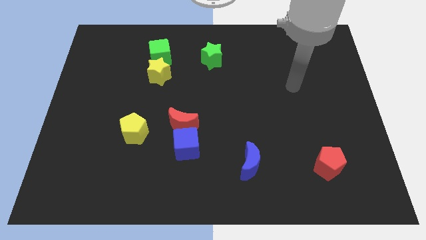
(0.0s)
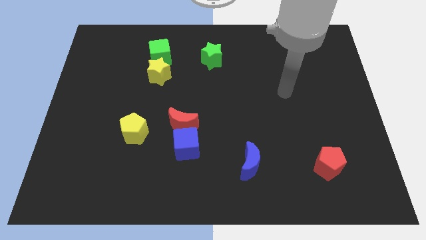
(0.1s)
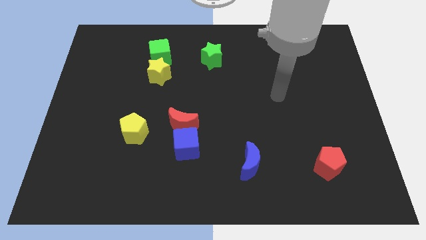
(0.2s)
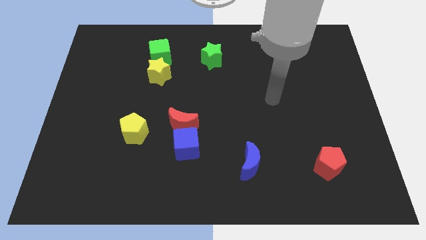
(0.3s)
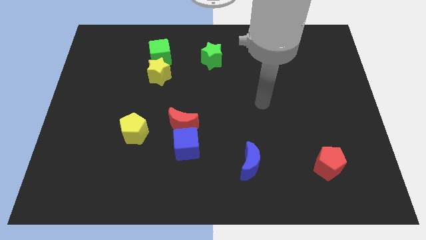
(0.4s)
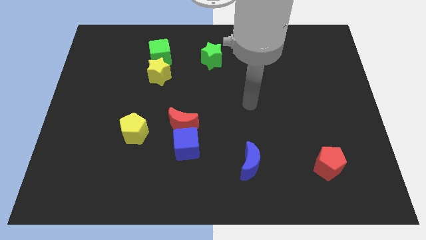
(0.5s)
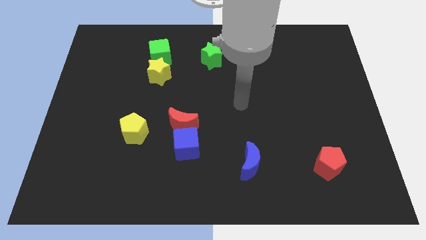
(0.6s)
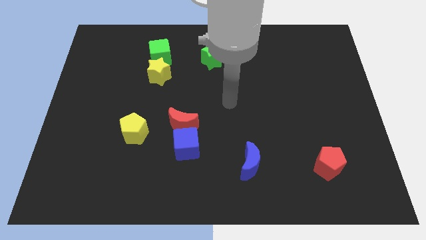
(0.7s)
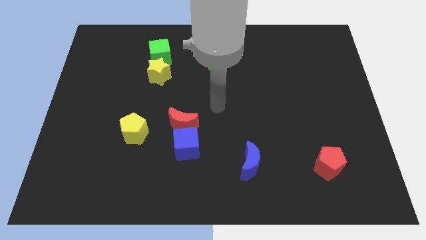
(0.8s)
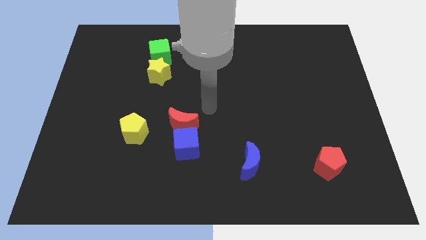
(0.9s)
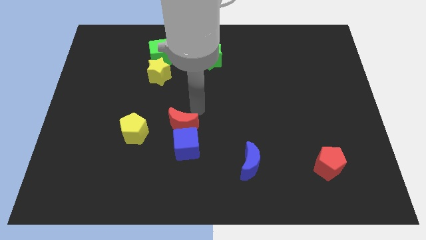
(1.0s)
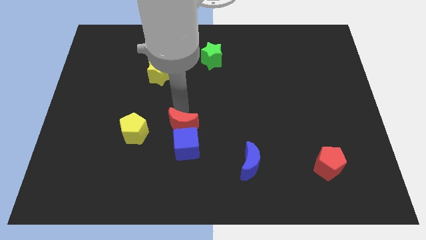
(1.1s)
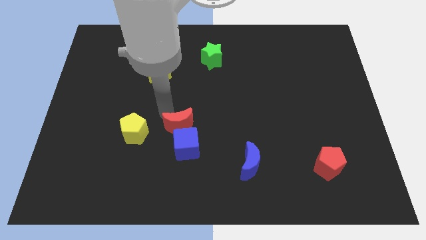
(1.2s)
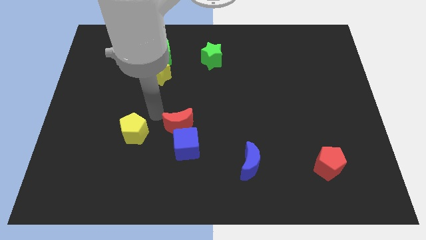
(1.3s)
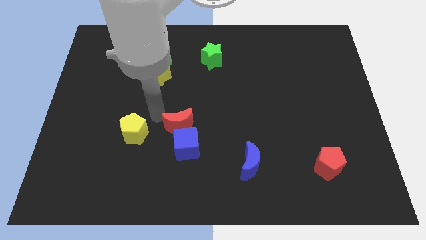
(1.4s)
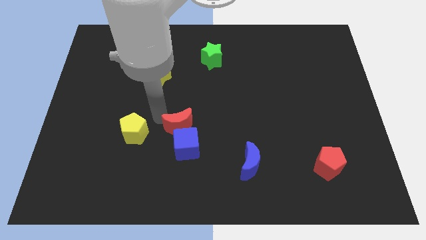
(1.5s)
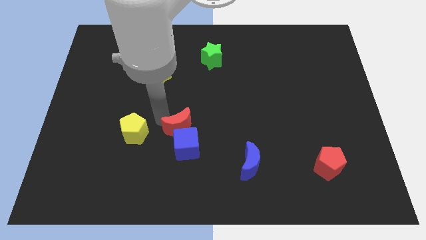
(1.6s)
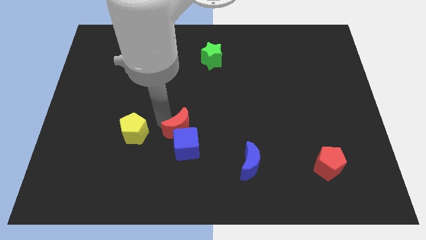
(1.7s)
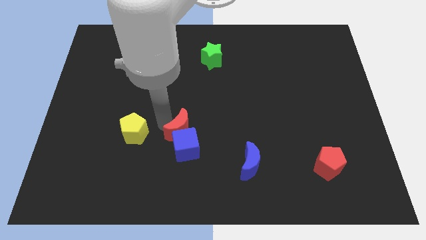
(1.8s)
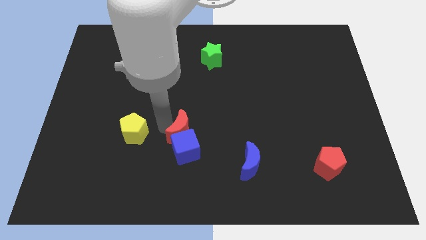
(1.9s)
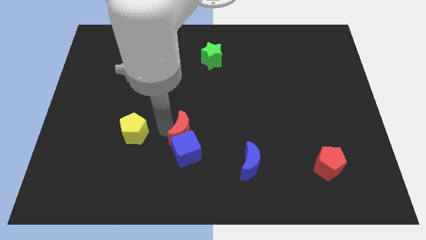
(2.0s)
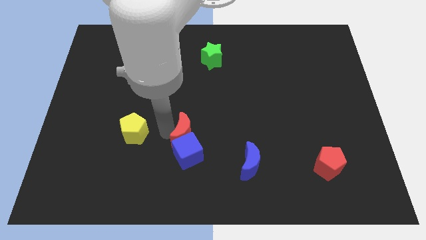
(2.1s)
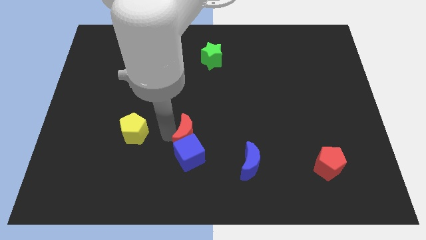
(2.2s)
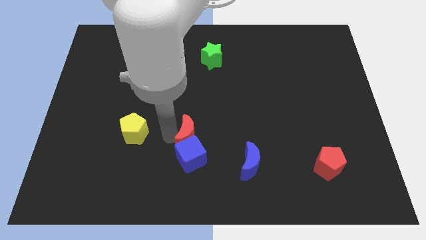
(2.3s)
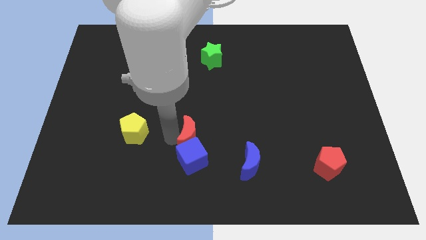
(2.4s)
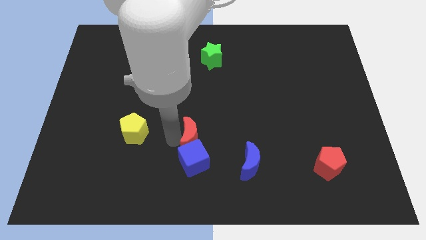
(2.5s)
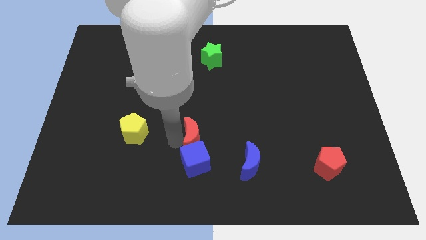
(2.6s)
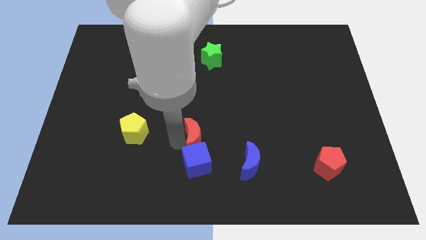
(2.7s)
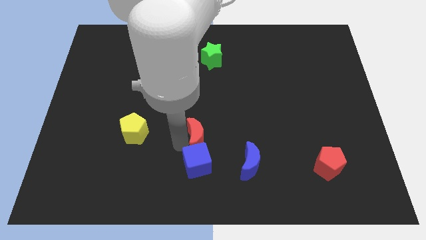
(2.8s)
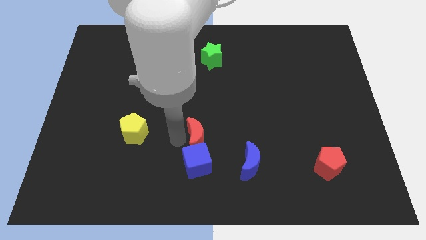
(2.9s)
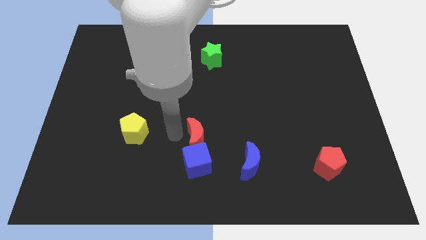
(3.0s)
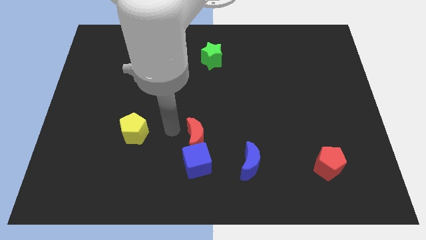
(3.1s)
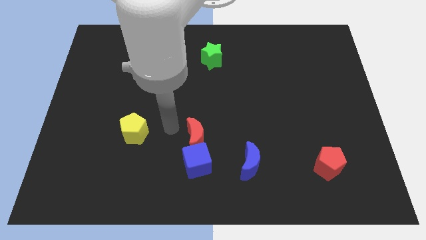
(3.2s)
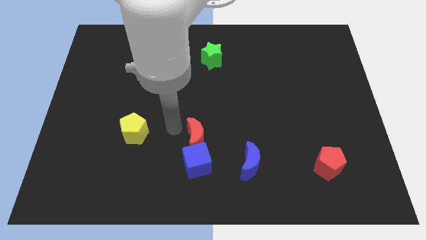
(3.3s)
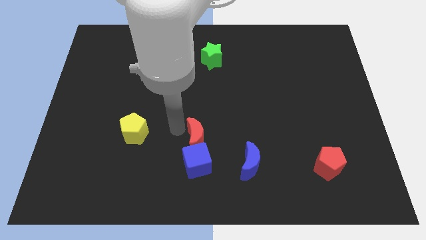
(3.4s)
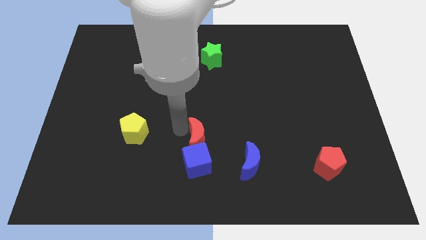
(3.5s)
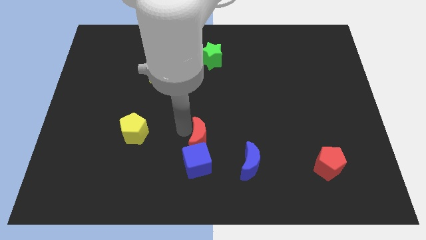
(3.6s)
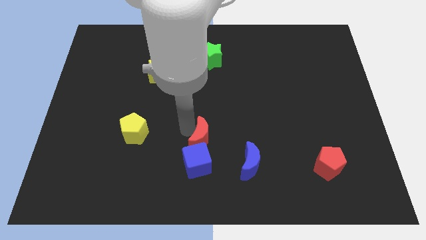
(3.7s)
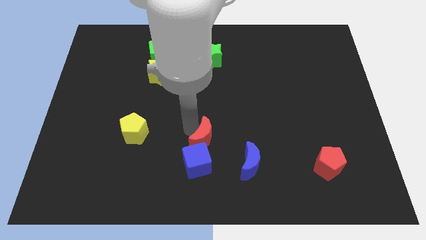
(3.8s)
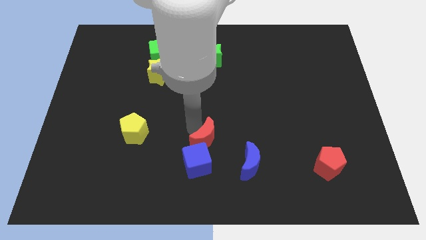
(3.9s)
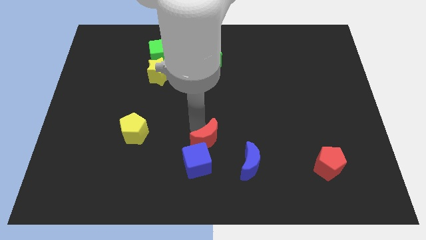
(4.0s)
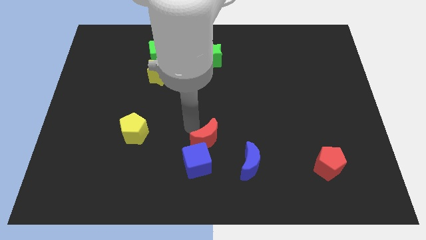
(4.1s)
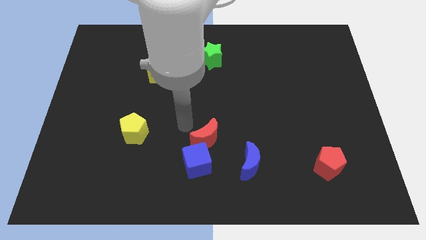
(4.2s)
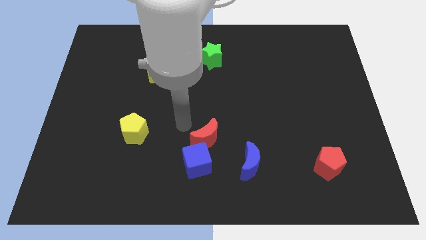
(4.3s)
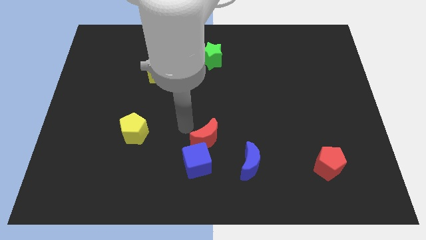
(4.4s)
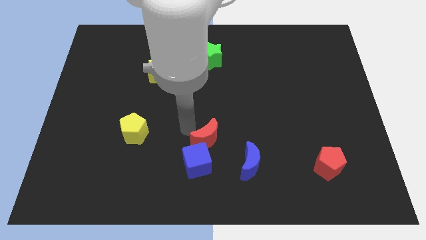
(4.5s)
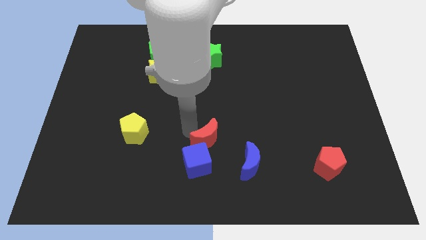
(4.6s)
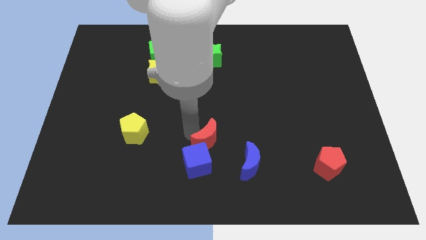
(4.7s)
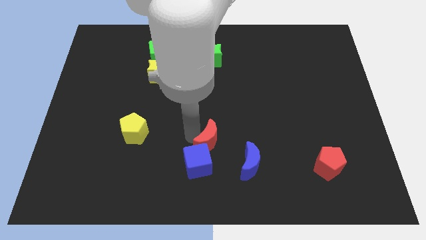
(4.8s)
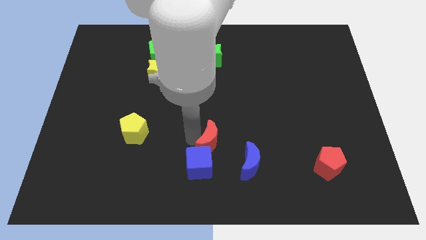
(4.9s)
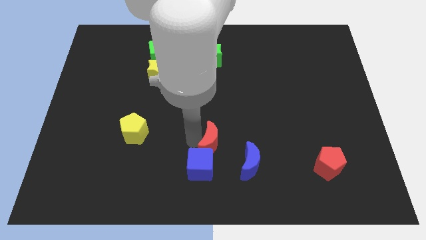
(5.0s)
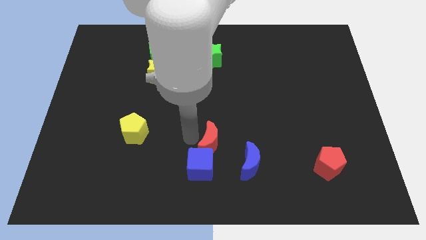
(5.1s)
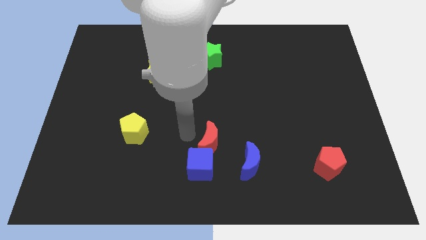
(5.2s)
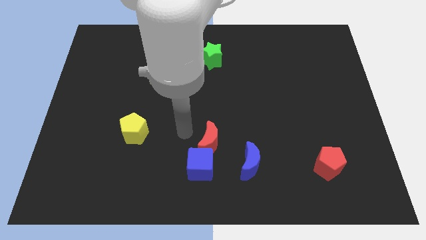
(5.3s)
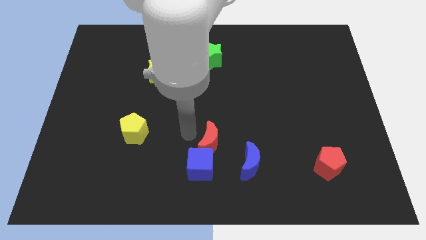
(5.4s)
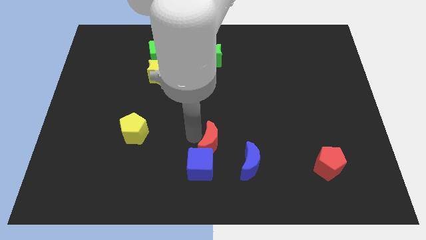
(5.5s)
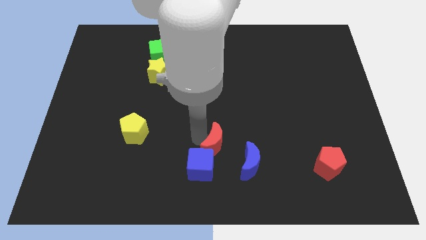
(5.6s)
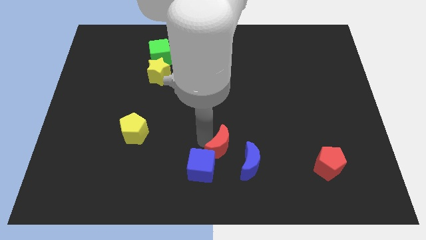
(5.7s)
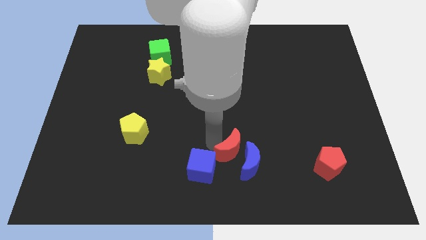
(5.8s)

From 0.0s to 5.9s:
slide the red moon towards the blue moon

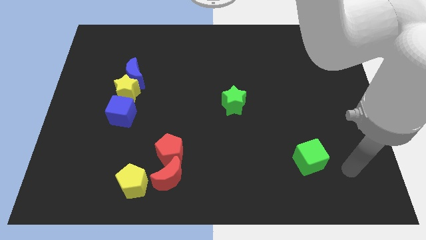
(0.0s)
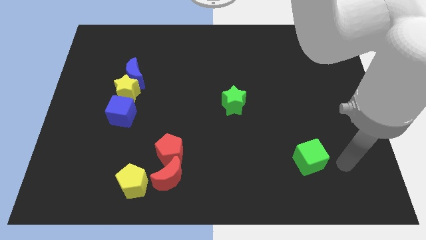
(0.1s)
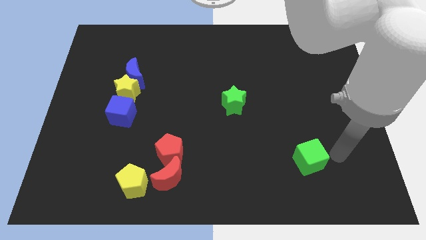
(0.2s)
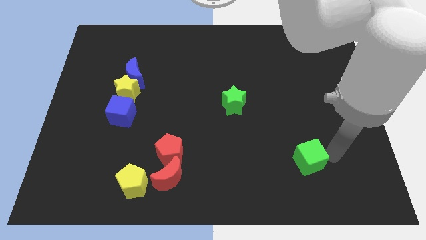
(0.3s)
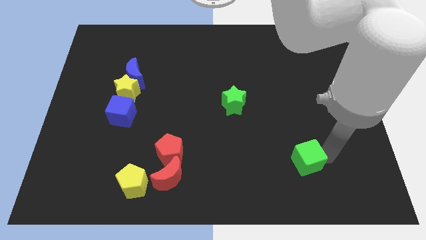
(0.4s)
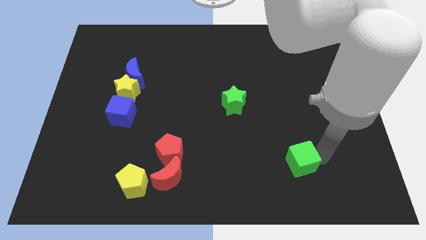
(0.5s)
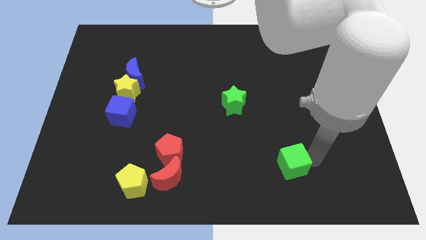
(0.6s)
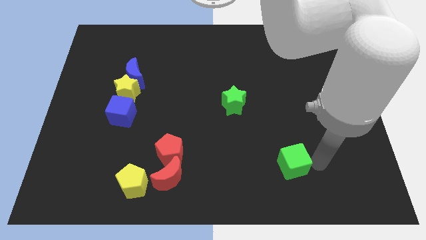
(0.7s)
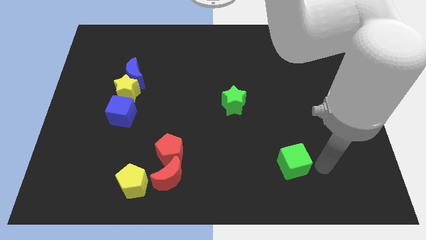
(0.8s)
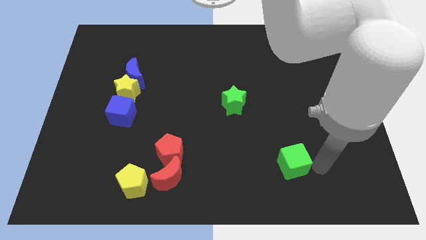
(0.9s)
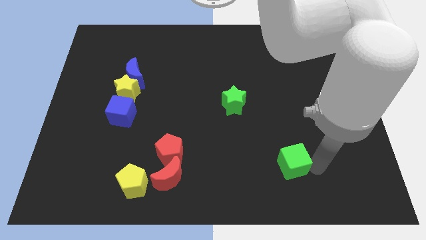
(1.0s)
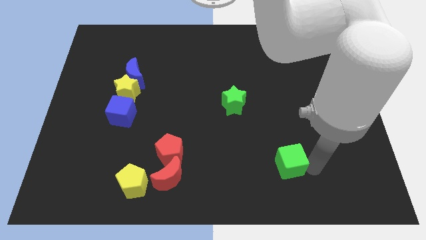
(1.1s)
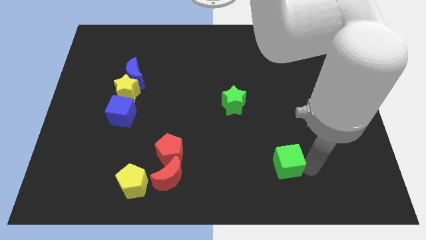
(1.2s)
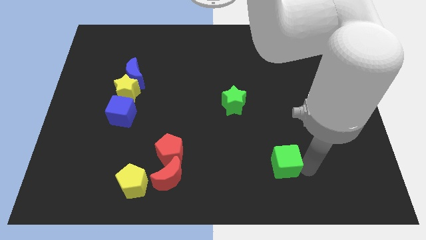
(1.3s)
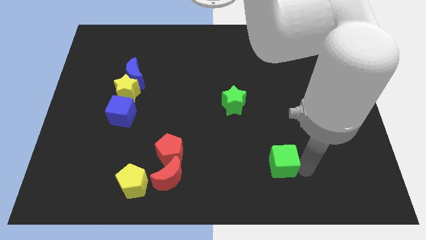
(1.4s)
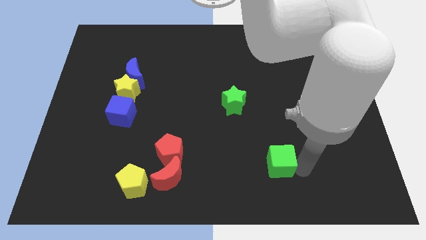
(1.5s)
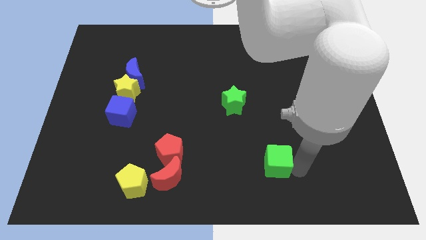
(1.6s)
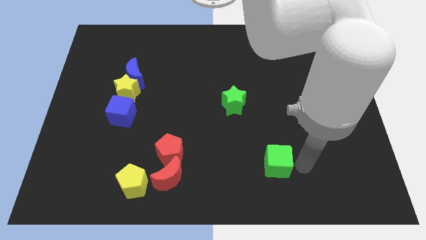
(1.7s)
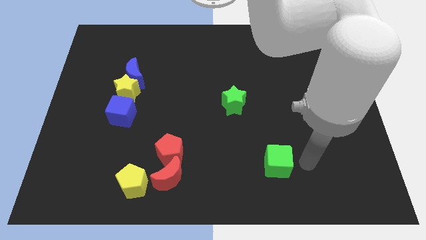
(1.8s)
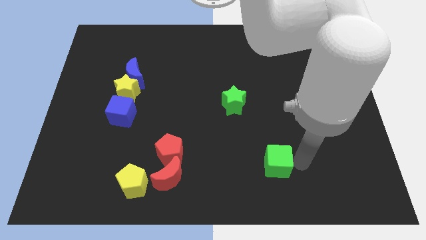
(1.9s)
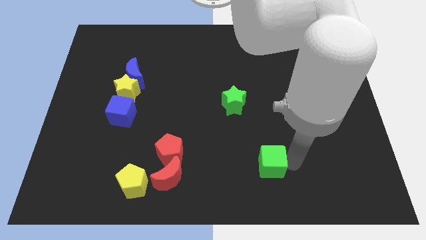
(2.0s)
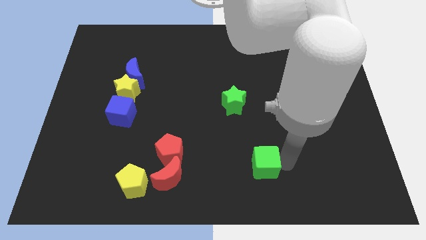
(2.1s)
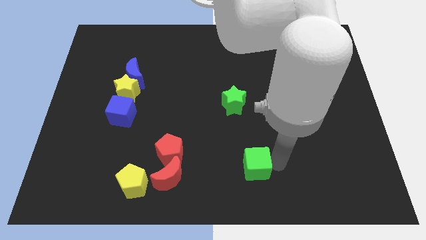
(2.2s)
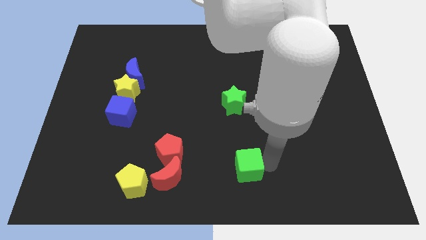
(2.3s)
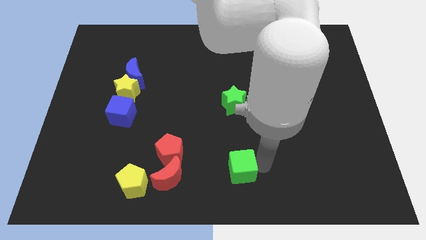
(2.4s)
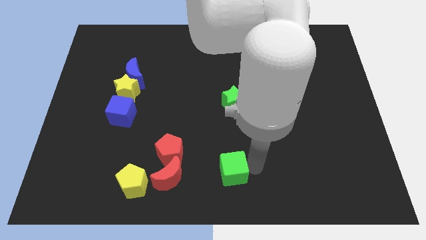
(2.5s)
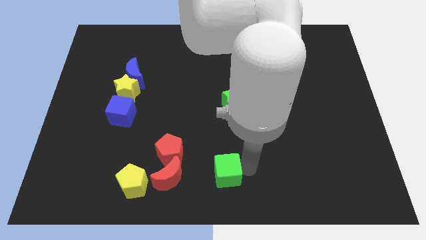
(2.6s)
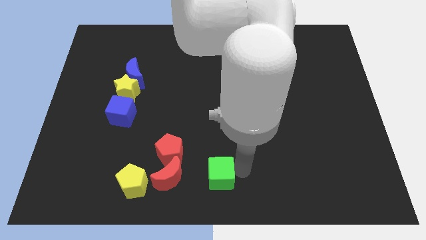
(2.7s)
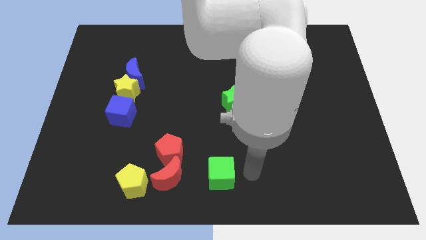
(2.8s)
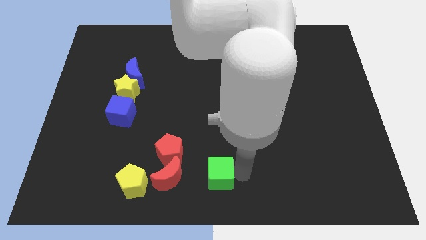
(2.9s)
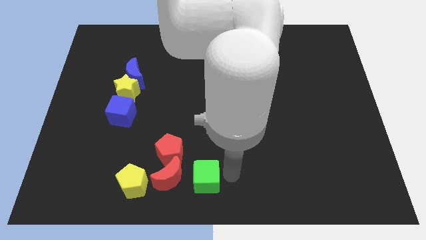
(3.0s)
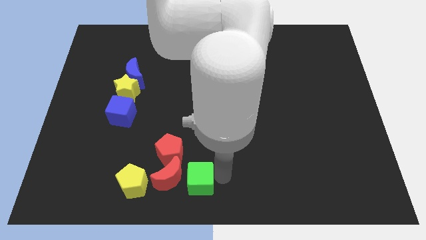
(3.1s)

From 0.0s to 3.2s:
slide the green cube towards the red moon
